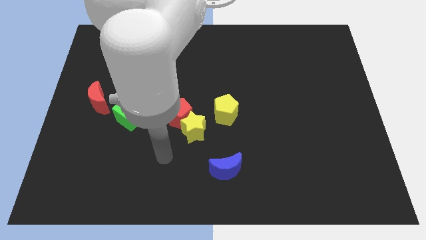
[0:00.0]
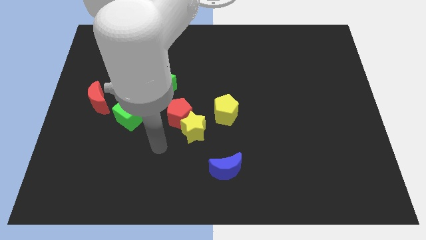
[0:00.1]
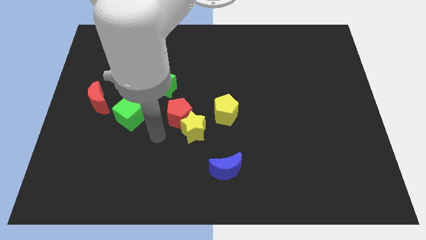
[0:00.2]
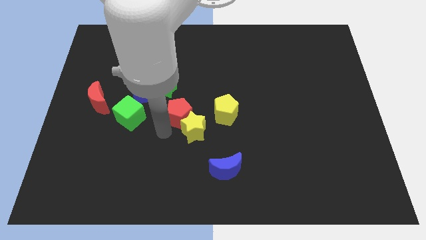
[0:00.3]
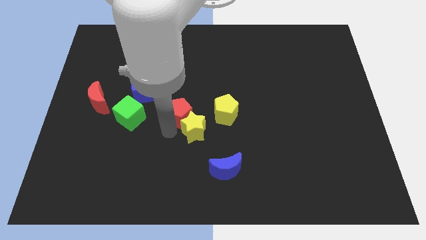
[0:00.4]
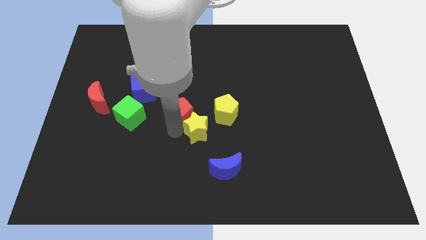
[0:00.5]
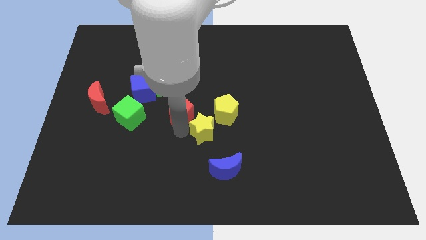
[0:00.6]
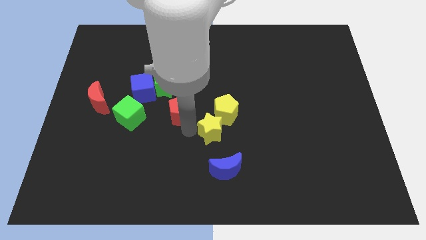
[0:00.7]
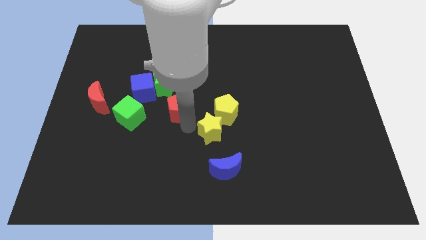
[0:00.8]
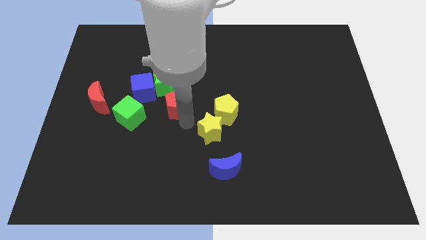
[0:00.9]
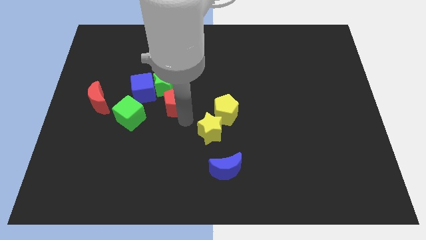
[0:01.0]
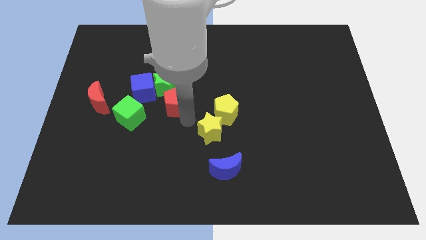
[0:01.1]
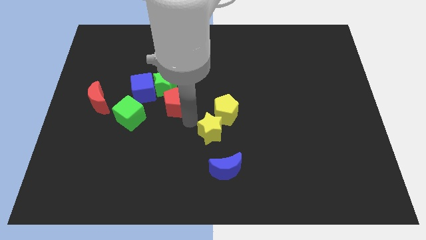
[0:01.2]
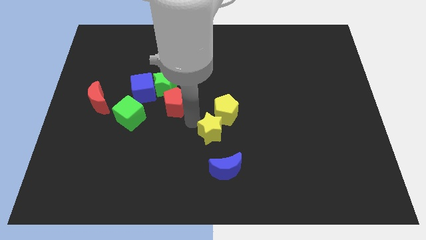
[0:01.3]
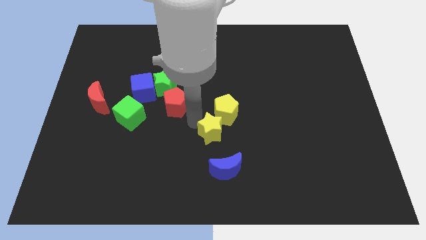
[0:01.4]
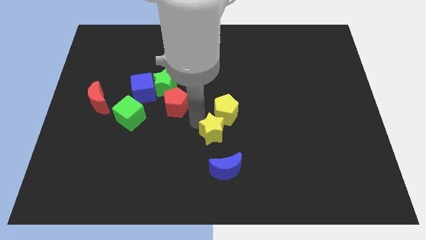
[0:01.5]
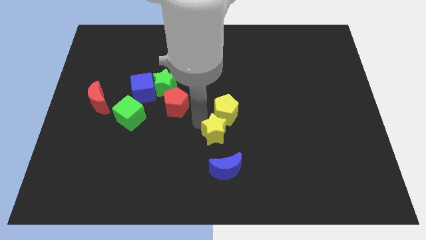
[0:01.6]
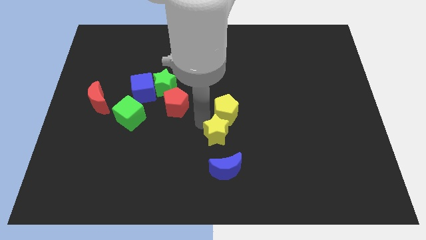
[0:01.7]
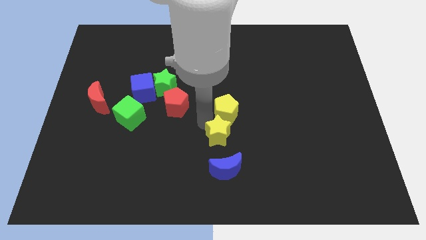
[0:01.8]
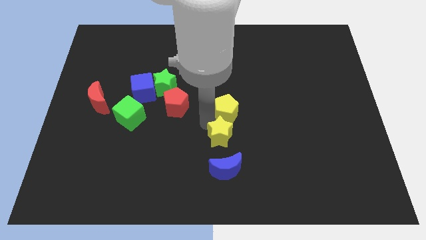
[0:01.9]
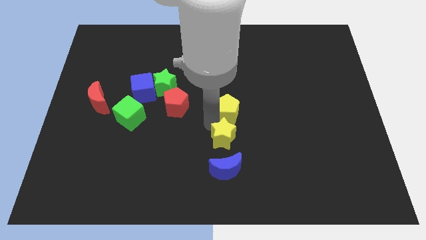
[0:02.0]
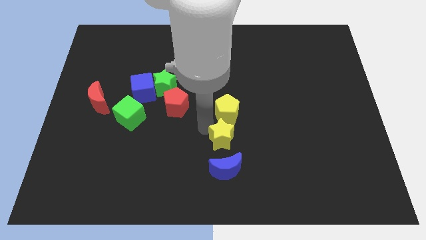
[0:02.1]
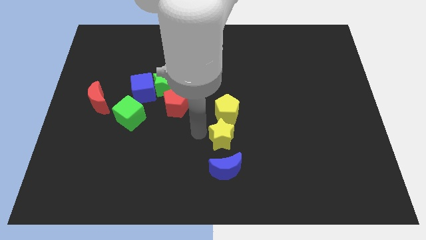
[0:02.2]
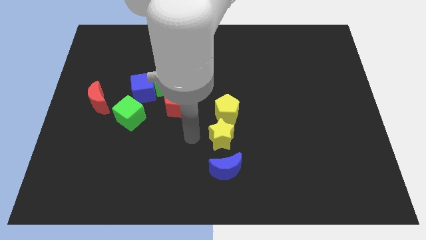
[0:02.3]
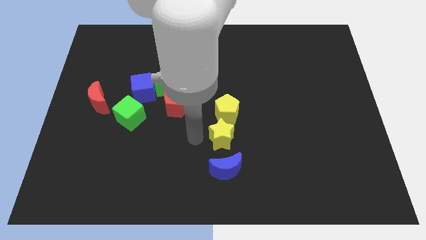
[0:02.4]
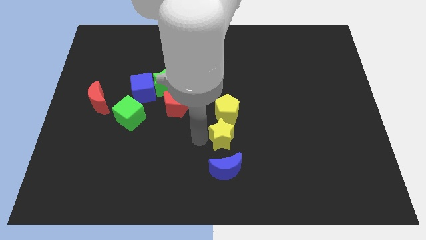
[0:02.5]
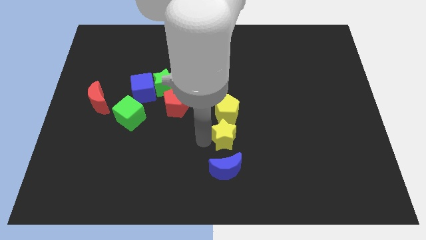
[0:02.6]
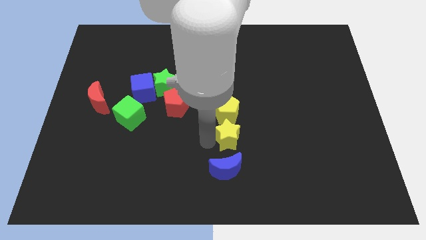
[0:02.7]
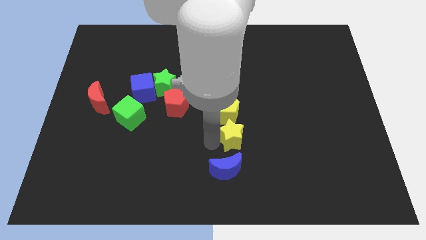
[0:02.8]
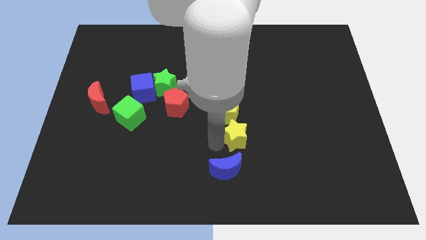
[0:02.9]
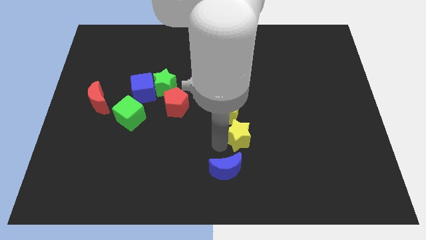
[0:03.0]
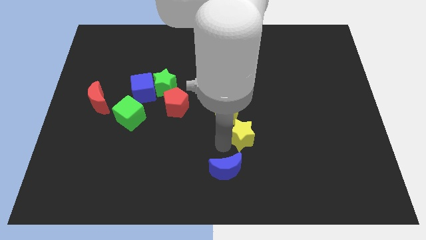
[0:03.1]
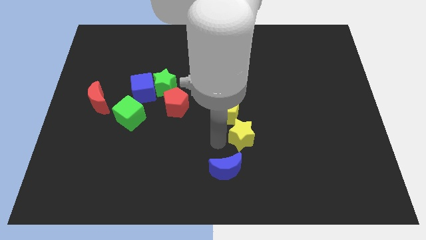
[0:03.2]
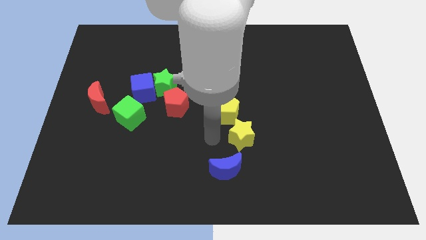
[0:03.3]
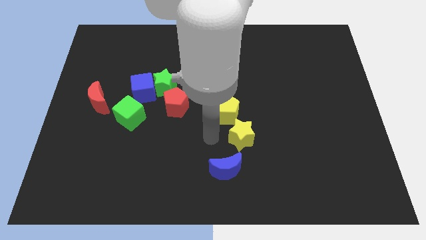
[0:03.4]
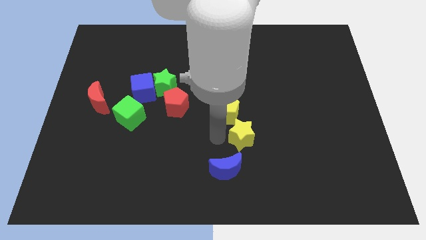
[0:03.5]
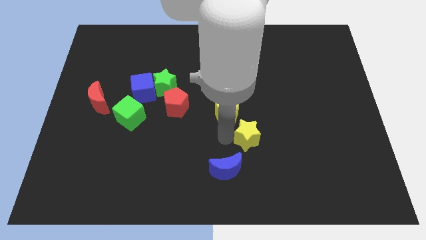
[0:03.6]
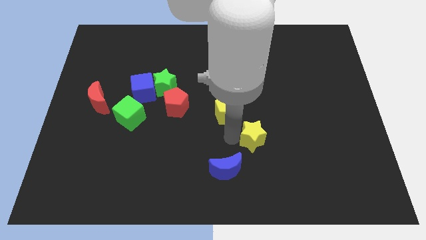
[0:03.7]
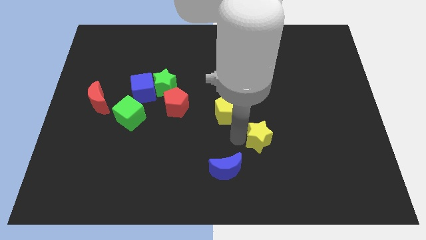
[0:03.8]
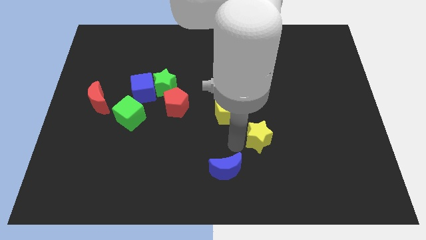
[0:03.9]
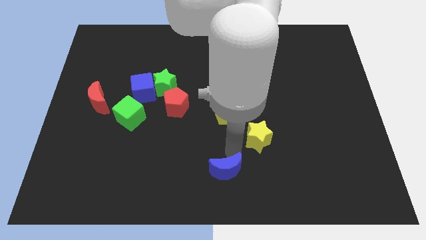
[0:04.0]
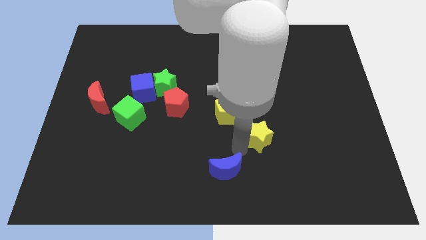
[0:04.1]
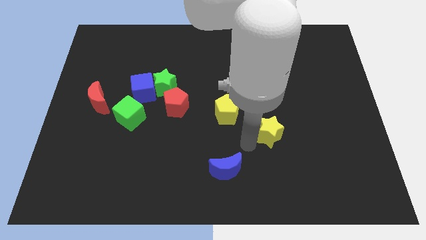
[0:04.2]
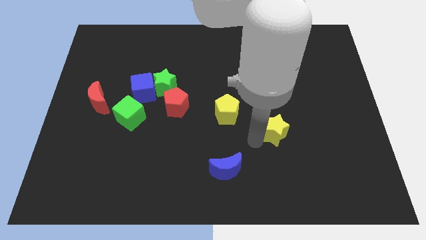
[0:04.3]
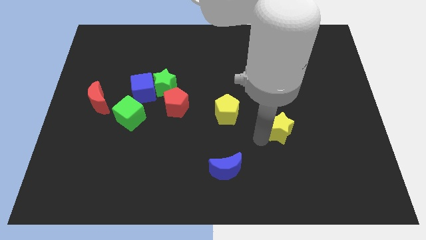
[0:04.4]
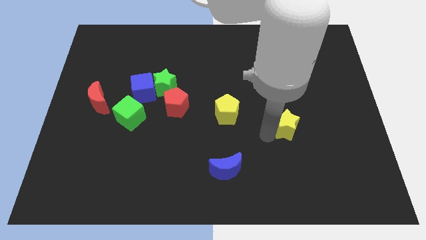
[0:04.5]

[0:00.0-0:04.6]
slide the yellow star to the right

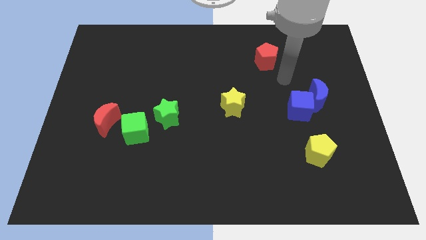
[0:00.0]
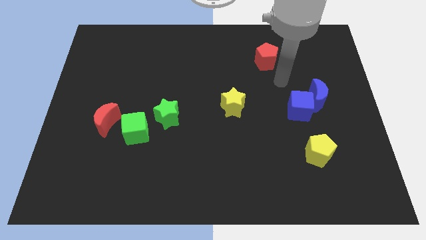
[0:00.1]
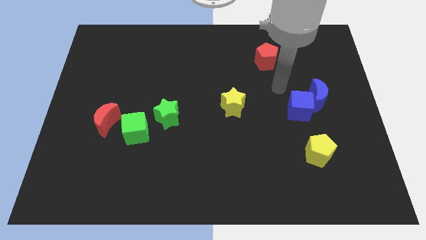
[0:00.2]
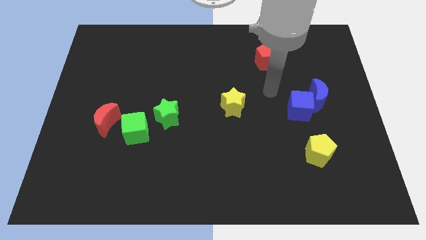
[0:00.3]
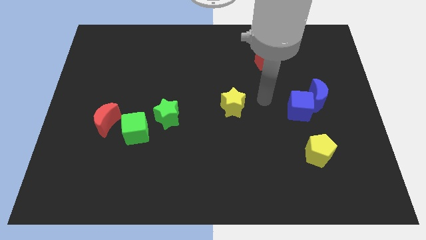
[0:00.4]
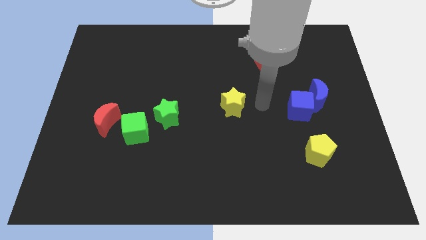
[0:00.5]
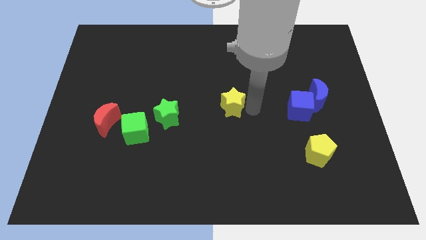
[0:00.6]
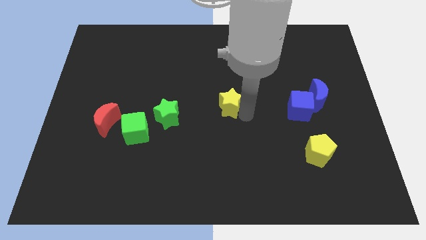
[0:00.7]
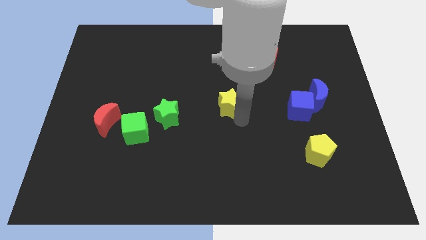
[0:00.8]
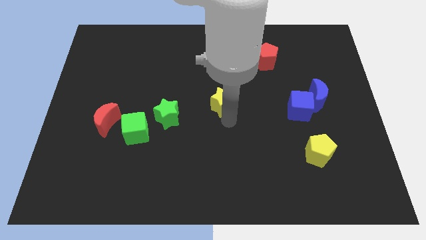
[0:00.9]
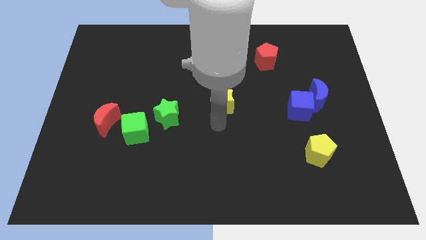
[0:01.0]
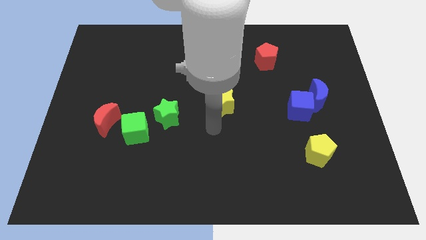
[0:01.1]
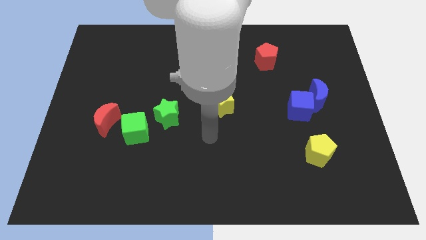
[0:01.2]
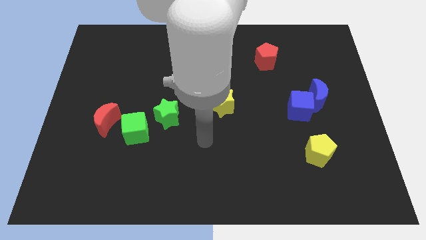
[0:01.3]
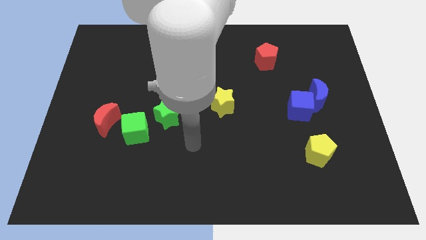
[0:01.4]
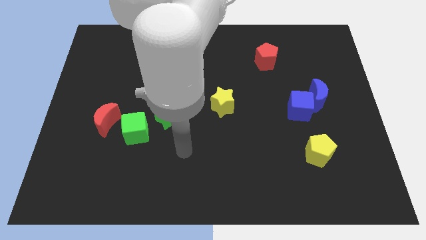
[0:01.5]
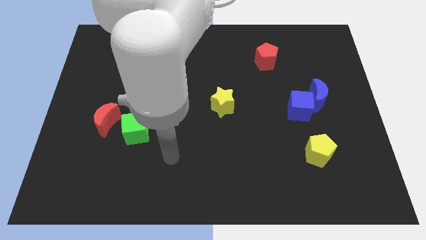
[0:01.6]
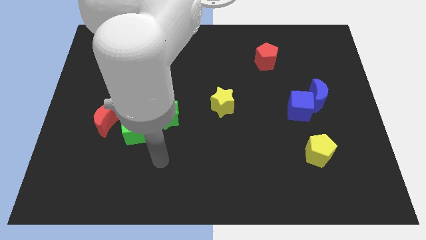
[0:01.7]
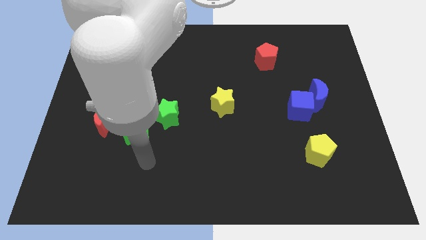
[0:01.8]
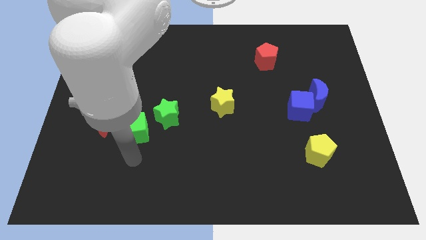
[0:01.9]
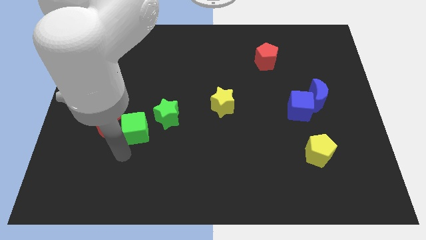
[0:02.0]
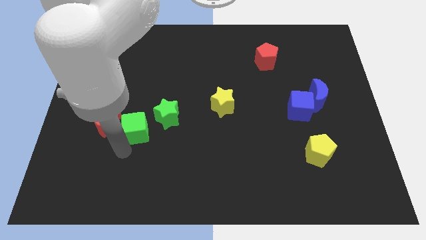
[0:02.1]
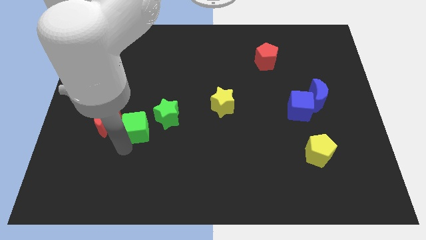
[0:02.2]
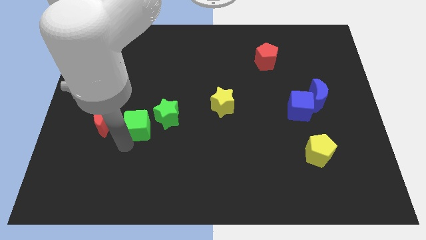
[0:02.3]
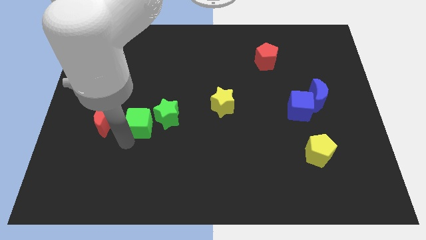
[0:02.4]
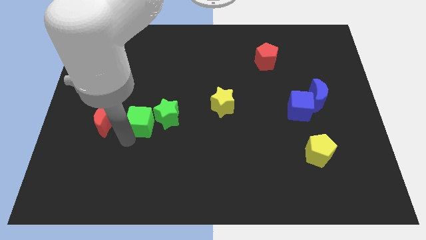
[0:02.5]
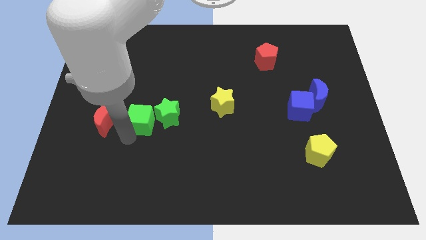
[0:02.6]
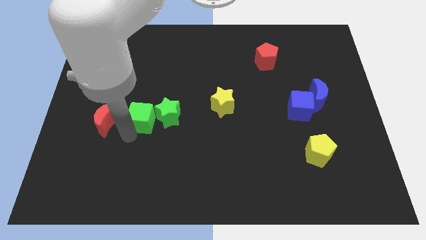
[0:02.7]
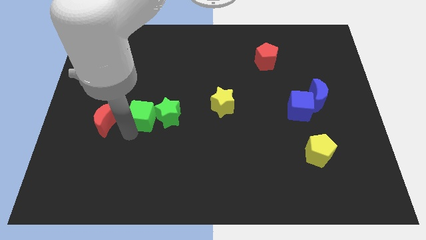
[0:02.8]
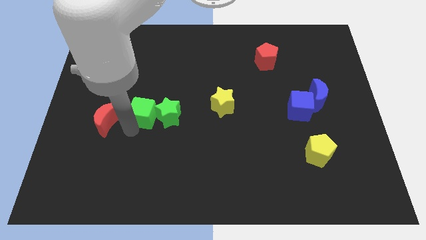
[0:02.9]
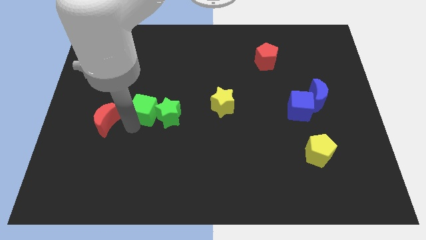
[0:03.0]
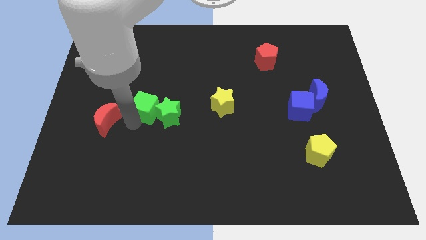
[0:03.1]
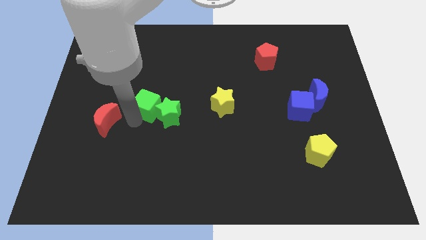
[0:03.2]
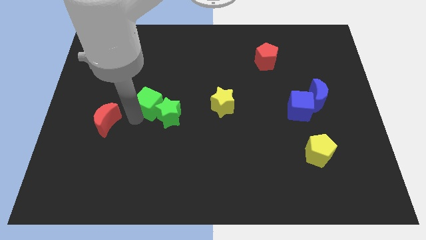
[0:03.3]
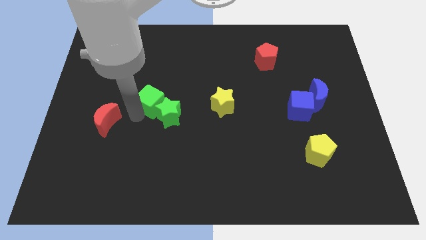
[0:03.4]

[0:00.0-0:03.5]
move the green cube up and then to the right a little bit
